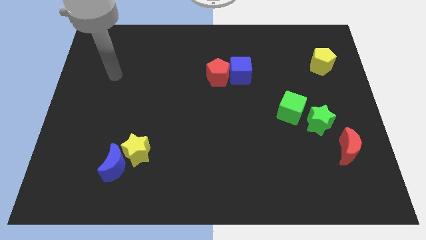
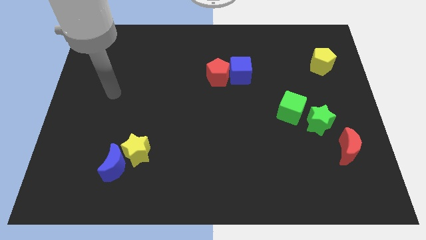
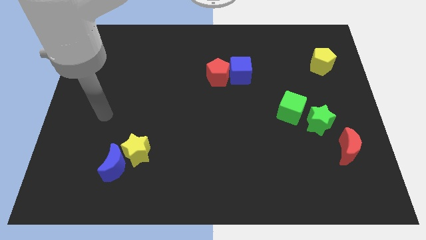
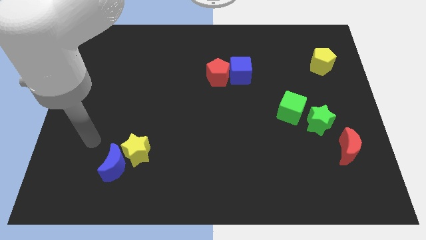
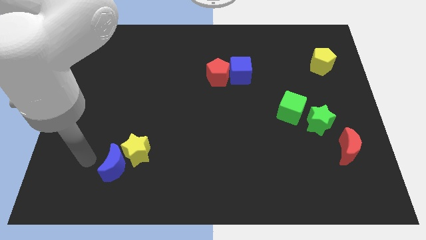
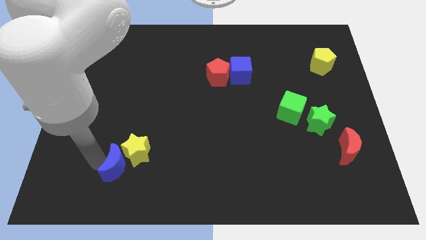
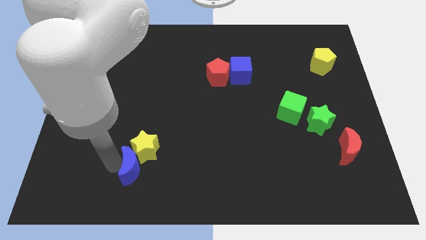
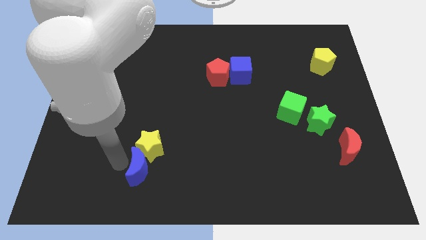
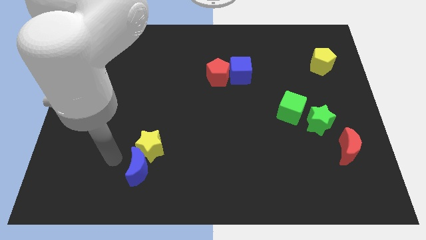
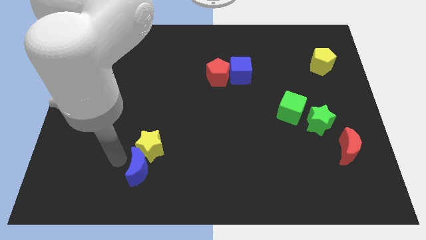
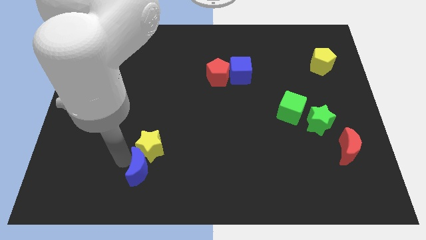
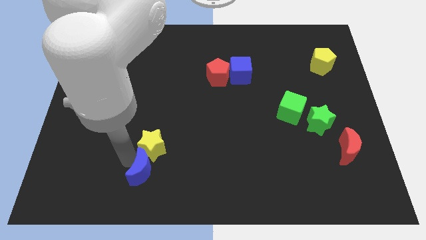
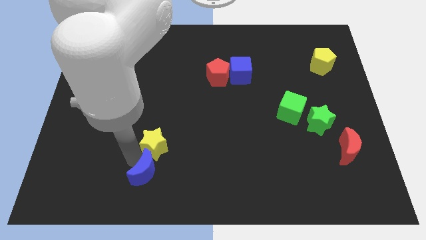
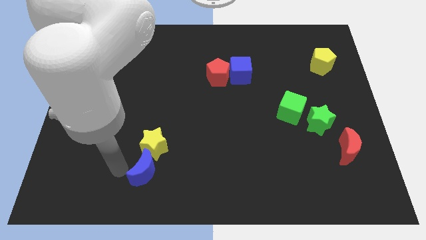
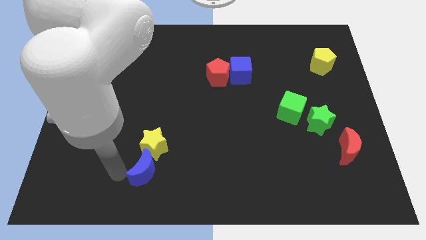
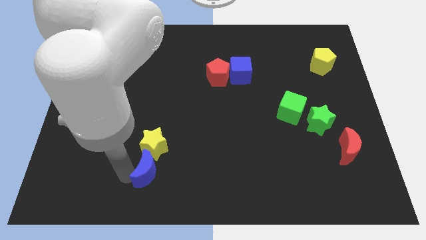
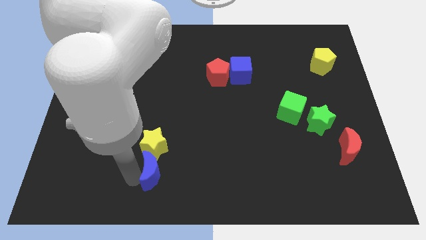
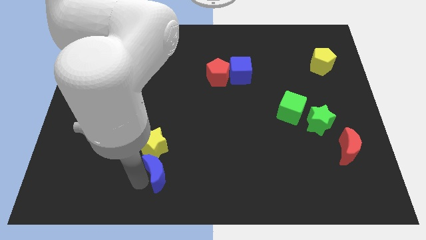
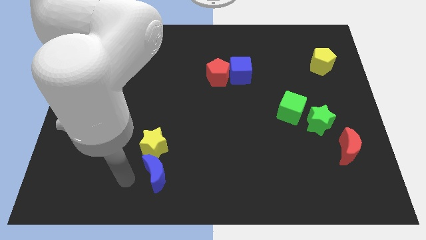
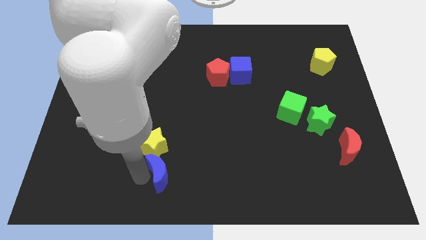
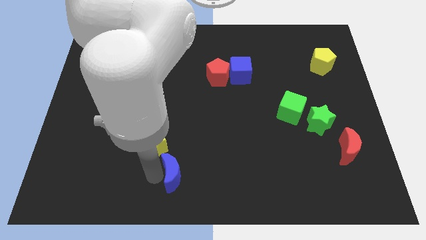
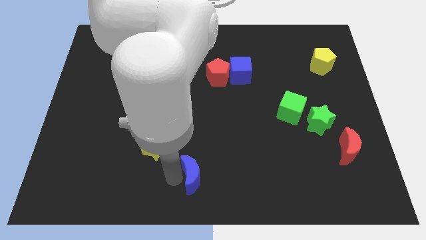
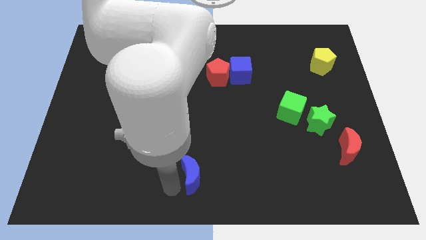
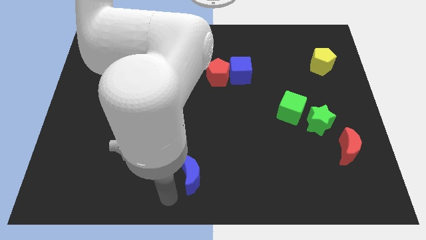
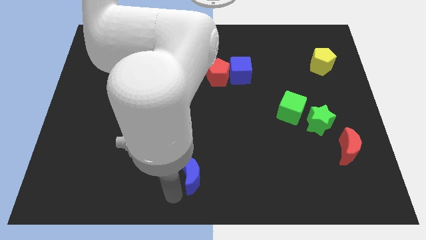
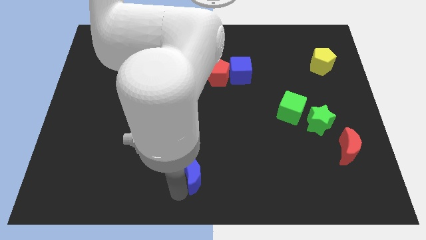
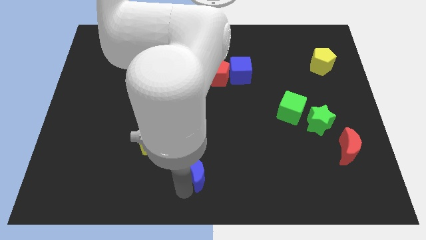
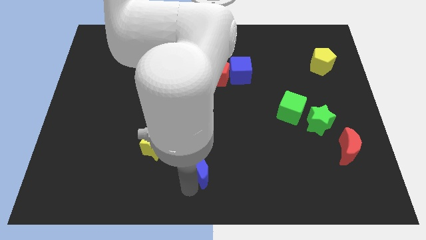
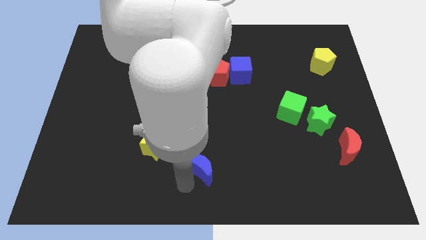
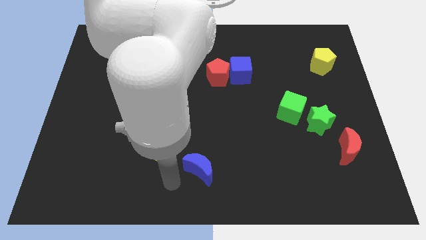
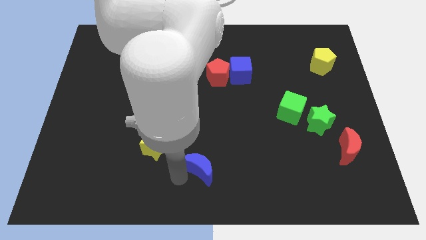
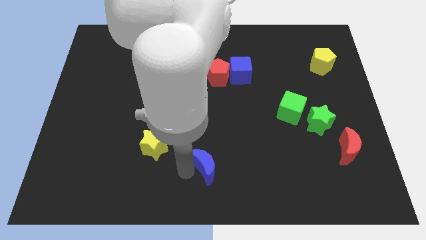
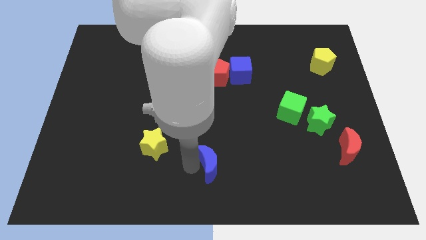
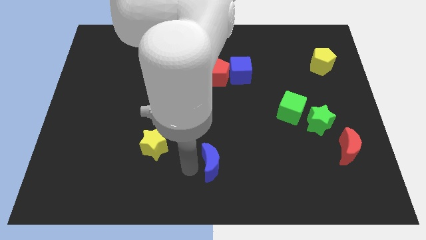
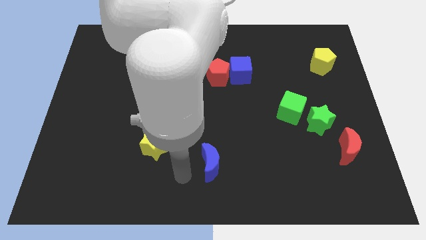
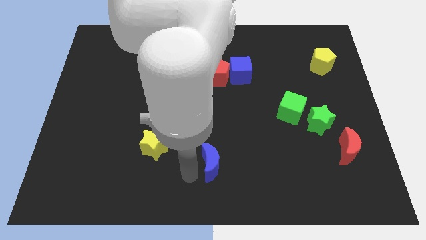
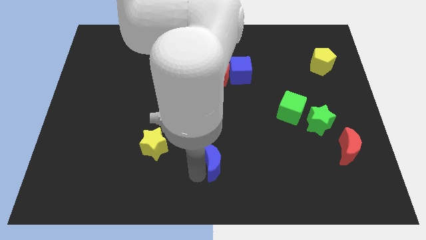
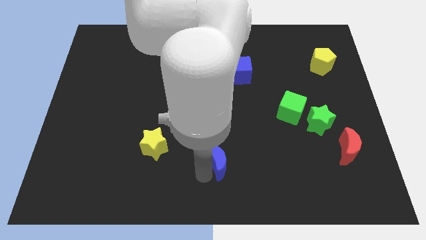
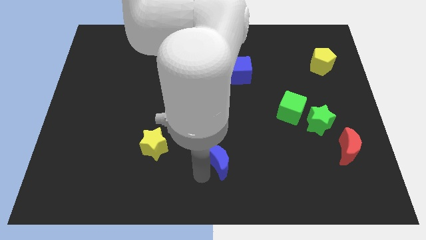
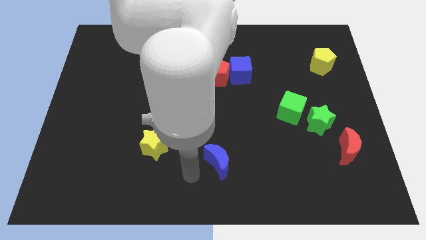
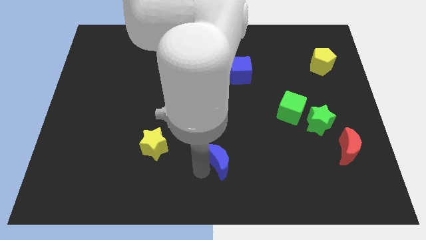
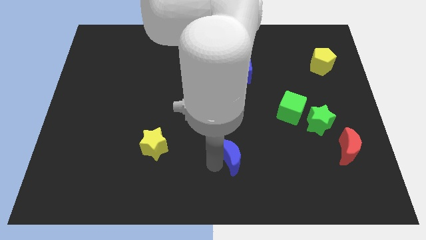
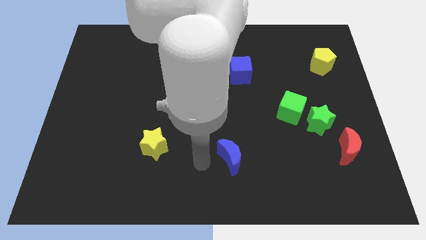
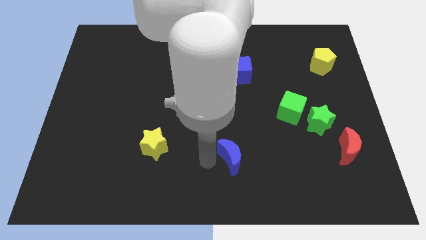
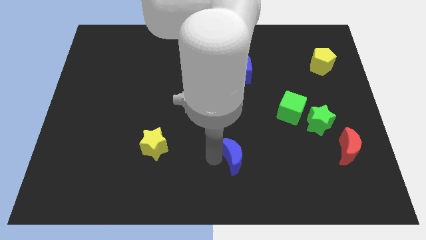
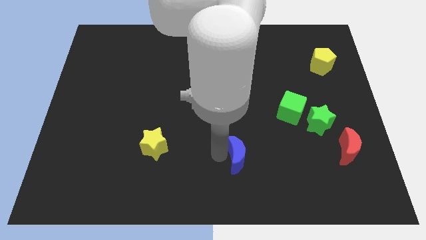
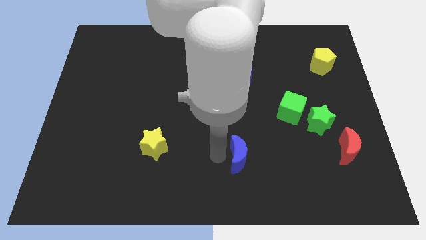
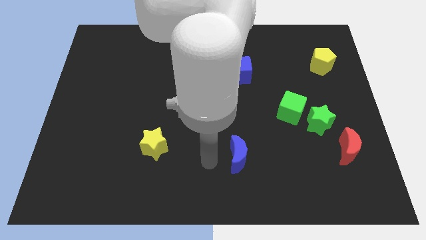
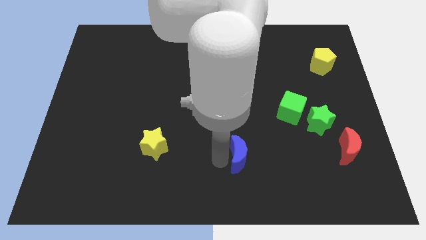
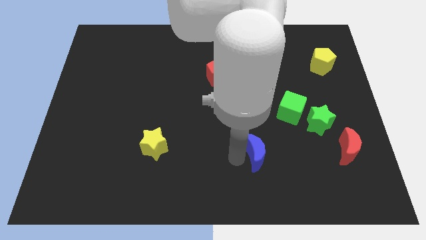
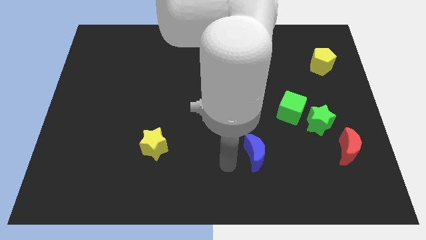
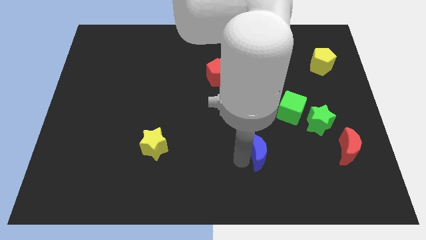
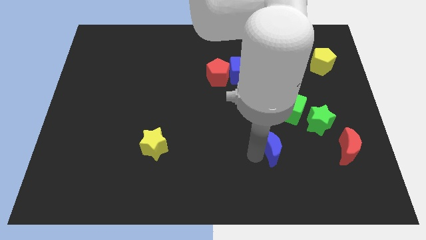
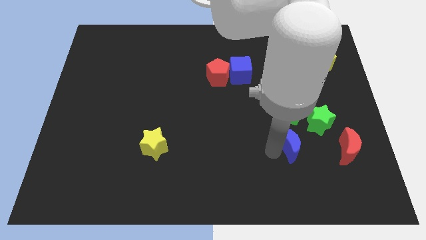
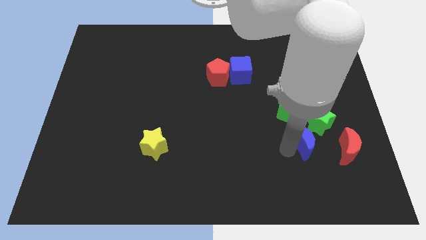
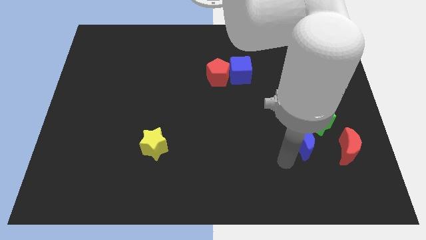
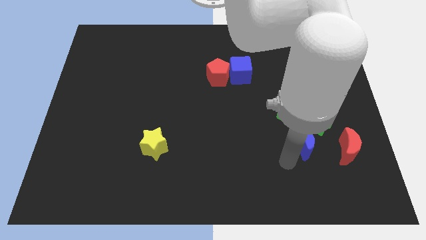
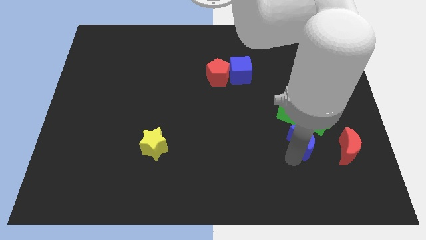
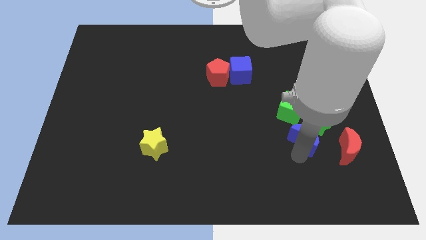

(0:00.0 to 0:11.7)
move the blue moon close to the green star

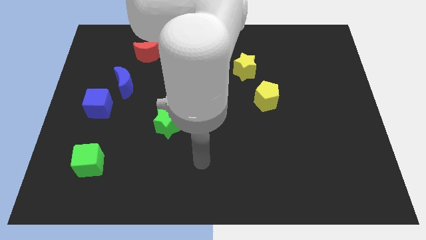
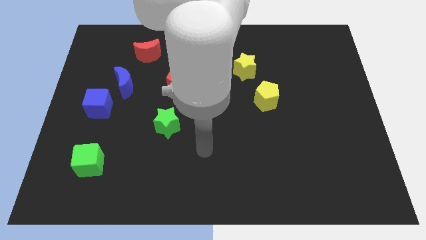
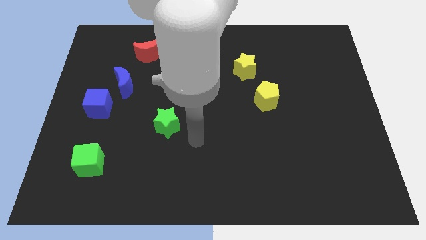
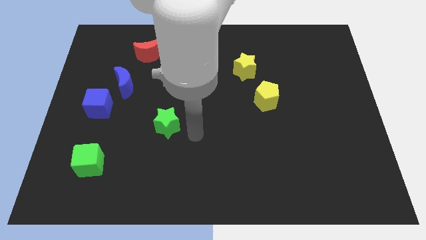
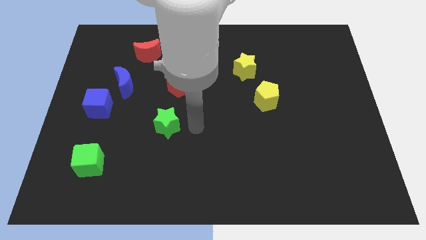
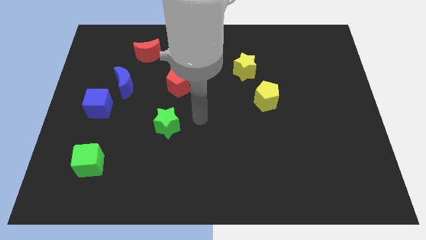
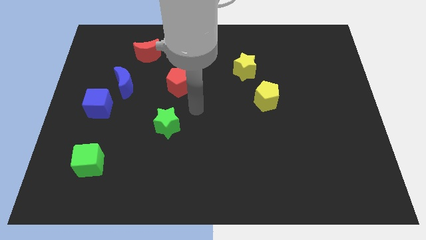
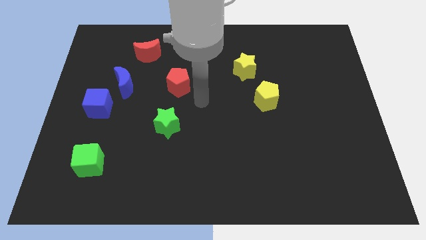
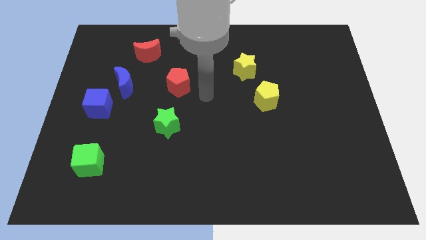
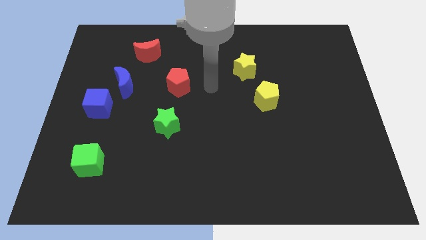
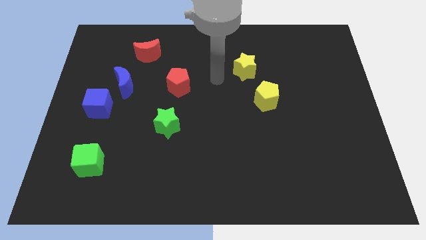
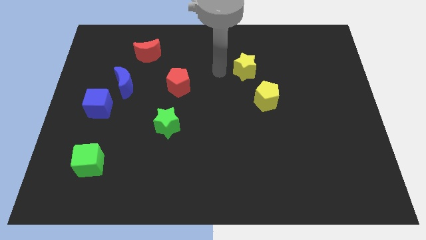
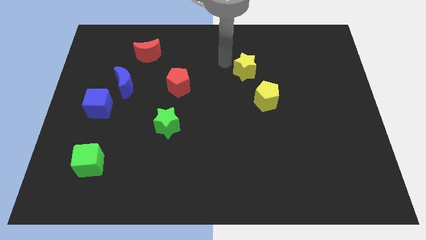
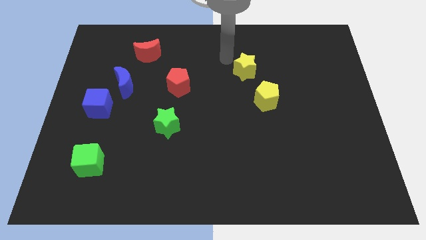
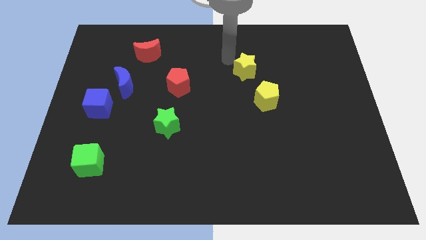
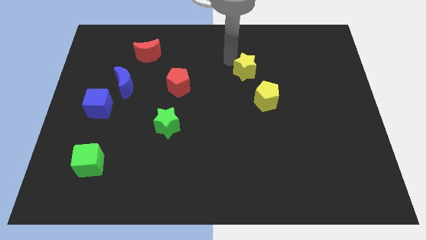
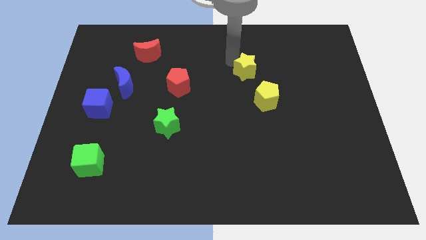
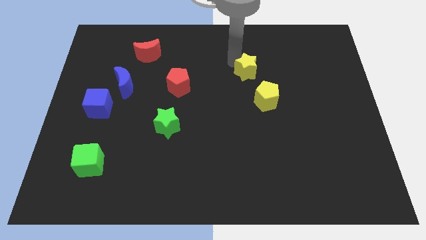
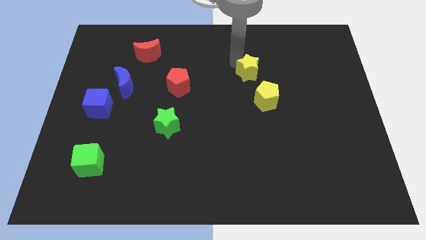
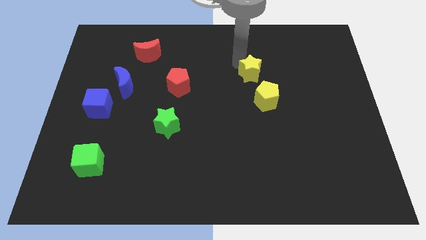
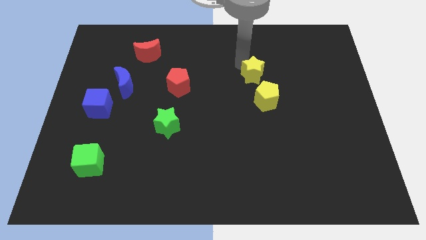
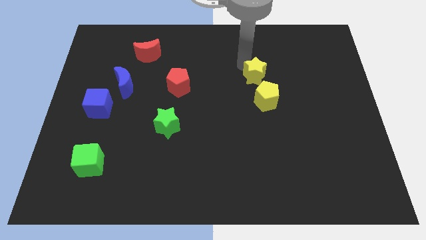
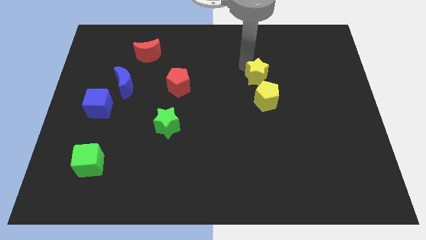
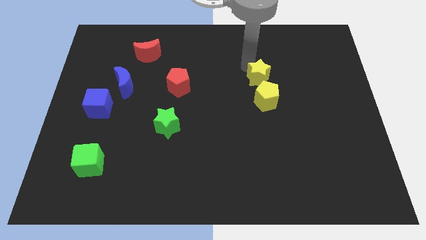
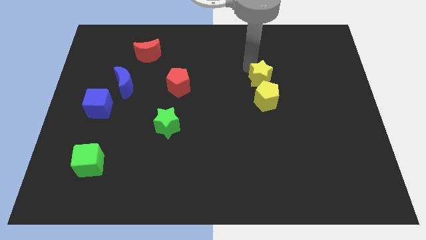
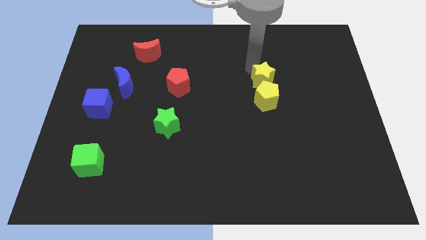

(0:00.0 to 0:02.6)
slide the yellow star close to the yellow pentagon
